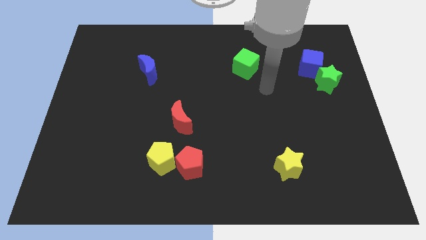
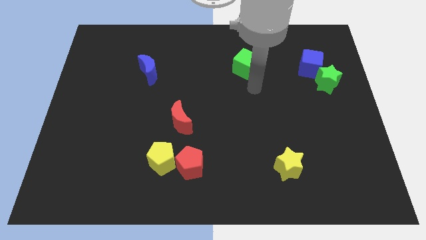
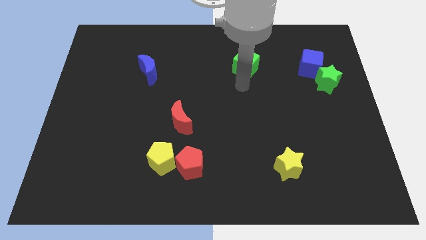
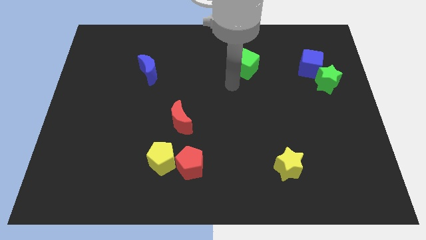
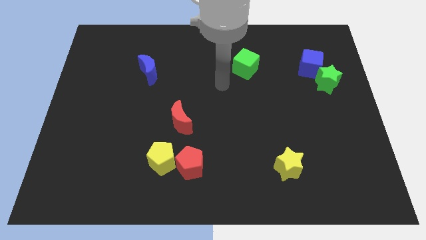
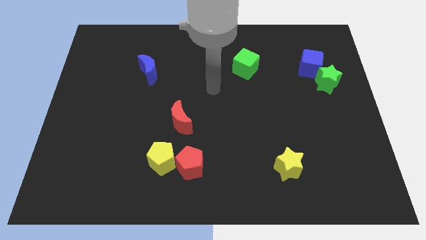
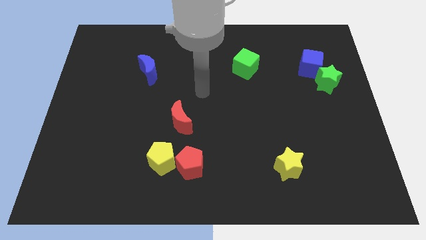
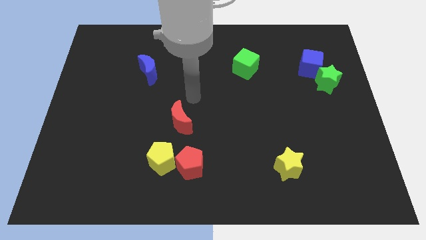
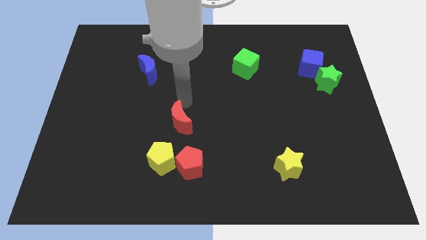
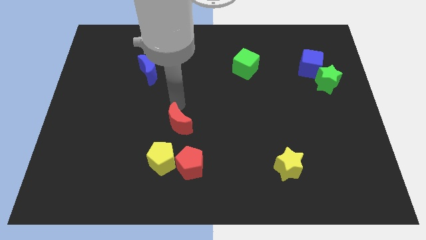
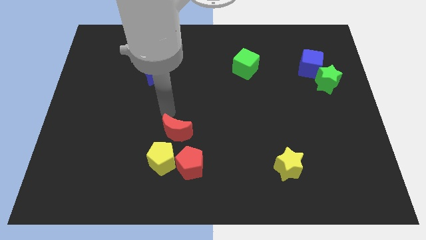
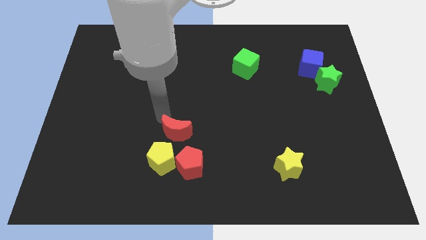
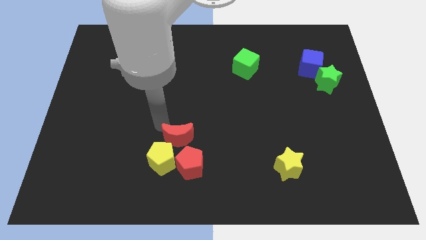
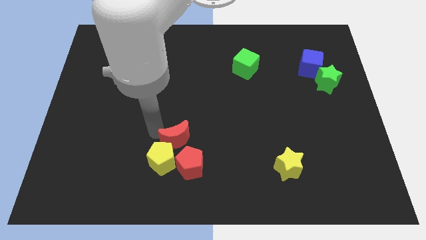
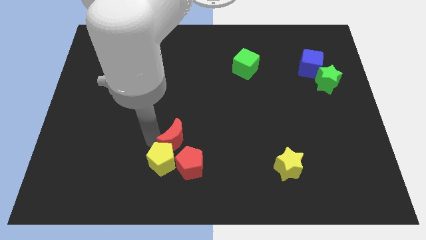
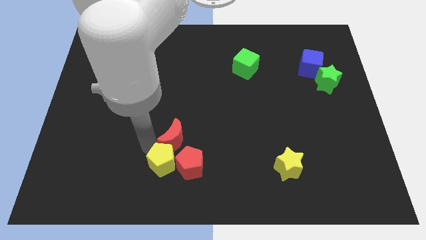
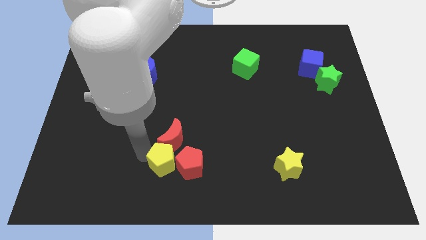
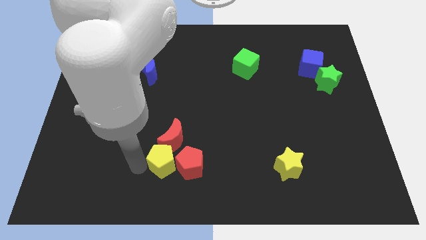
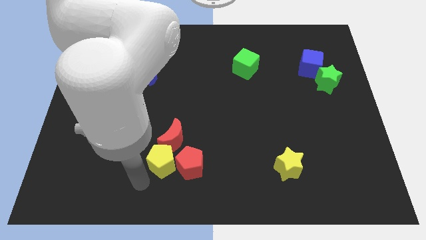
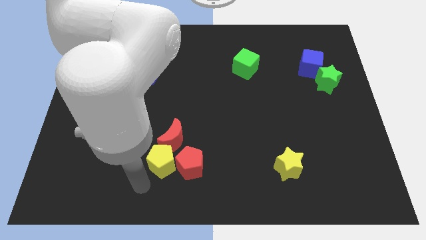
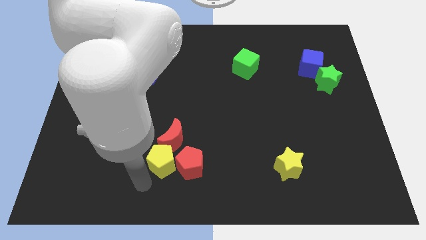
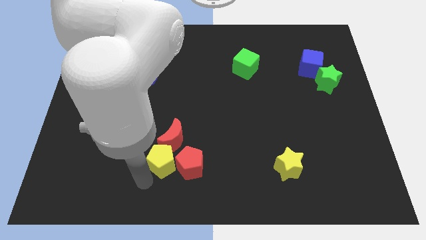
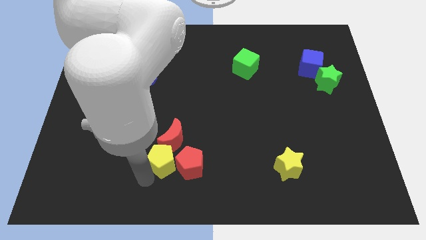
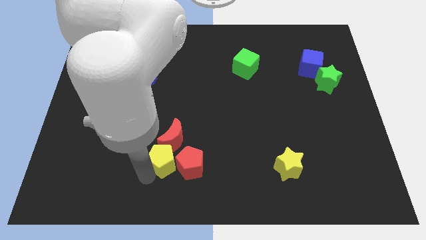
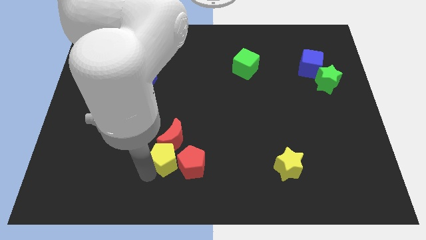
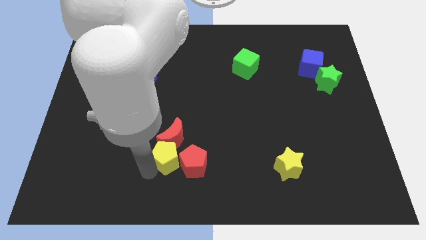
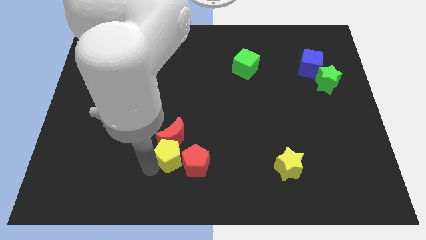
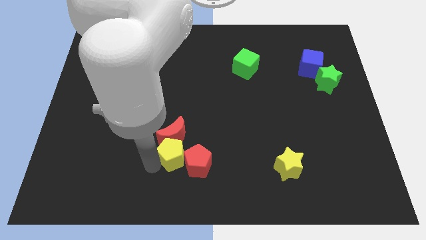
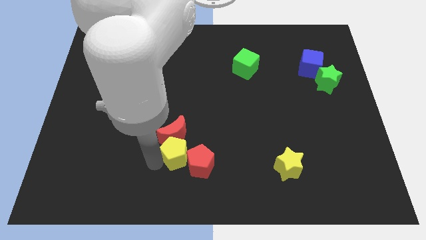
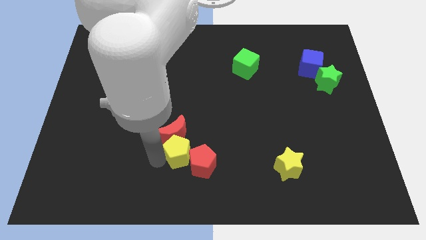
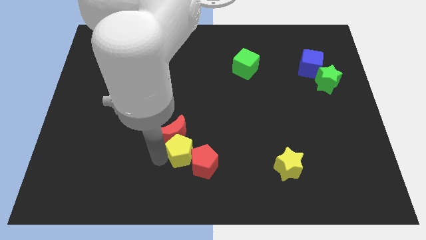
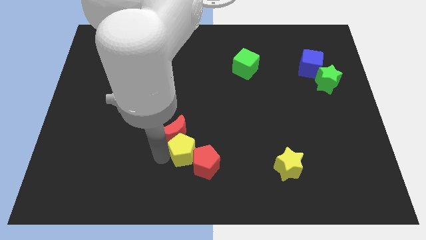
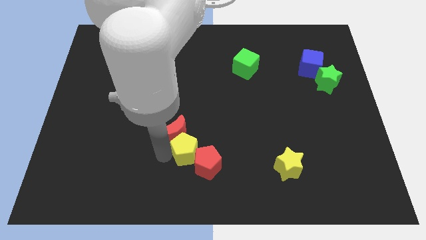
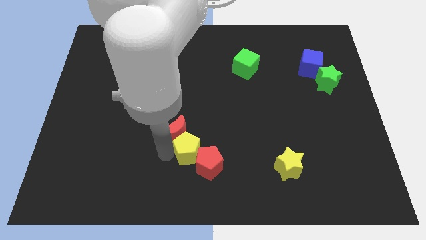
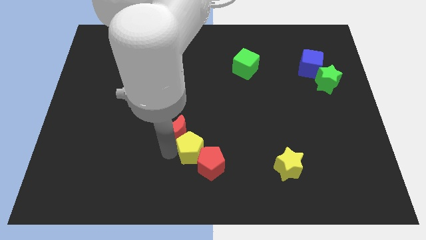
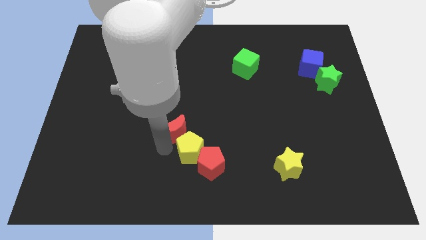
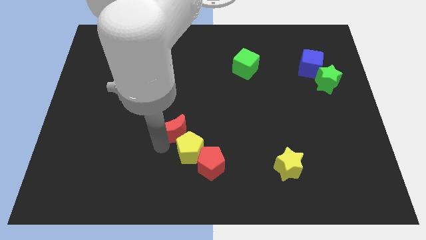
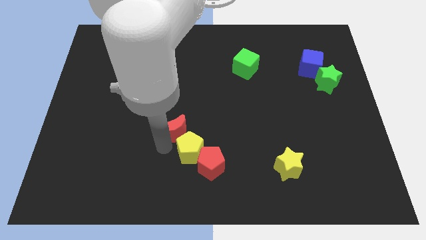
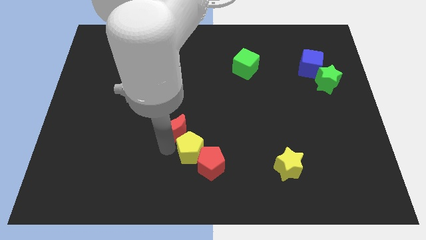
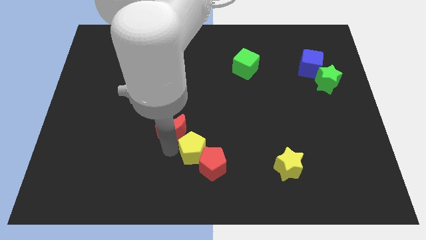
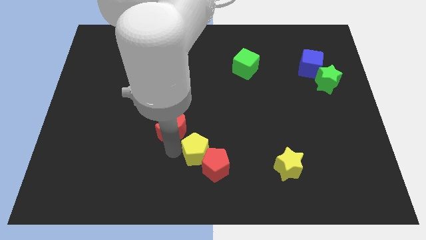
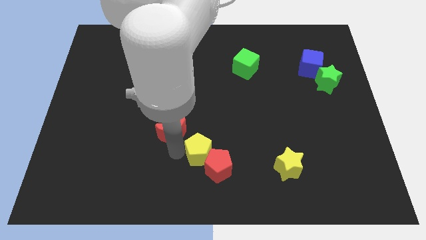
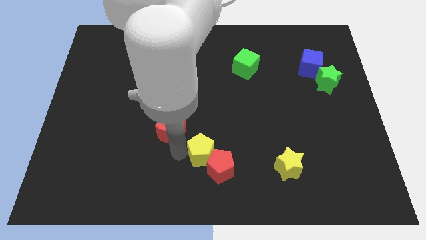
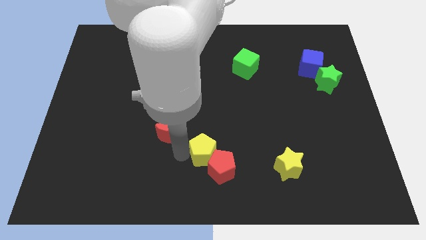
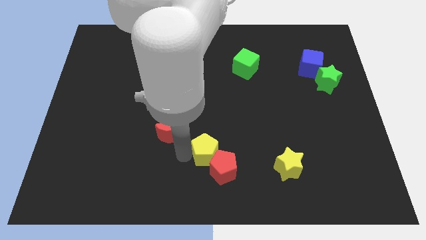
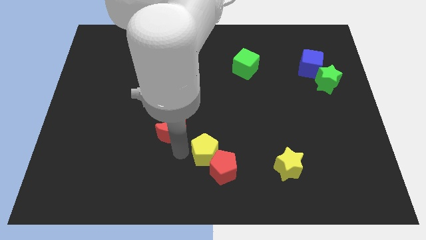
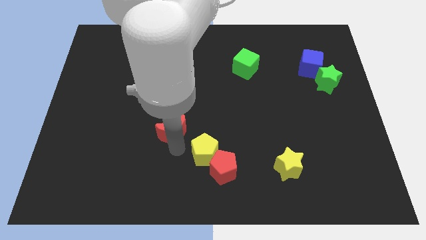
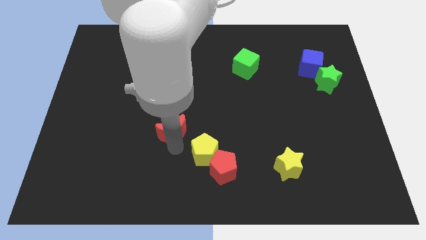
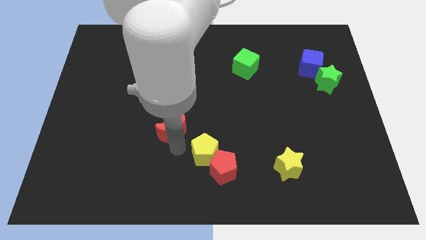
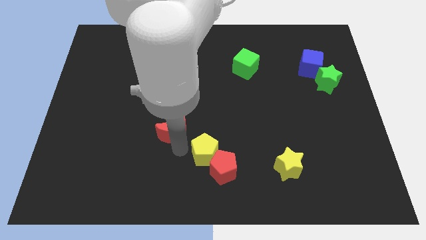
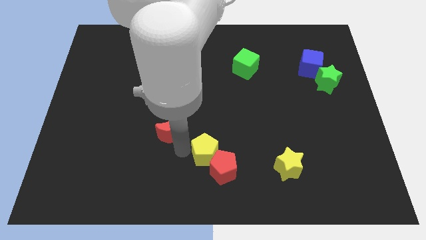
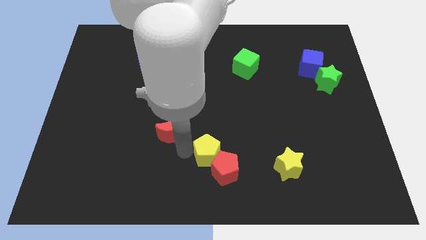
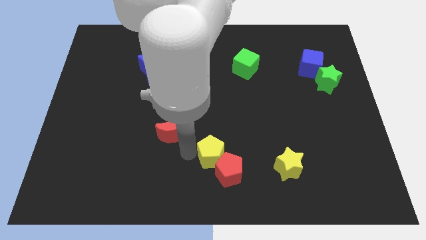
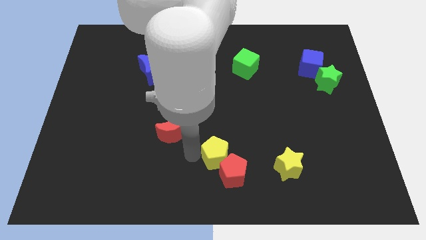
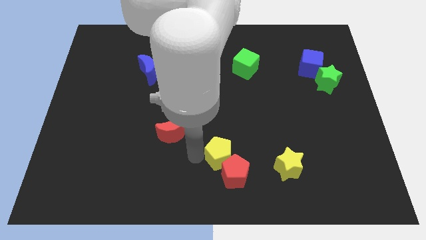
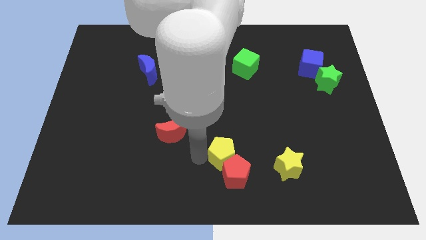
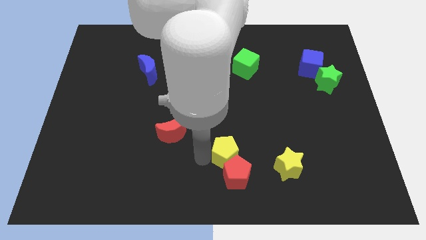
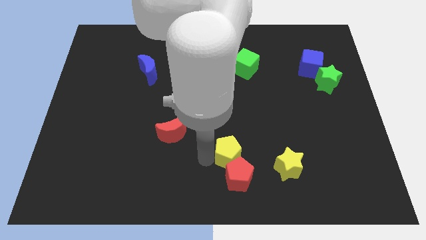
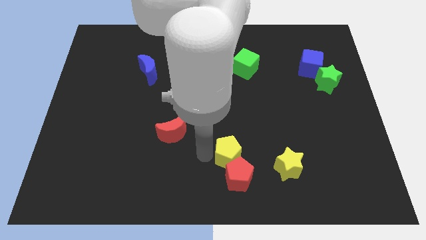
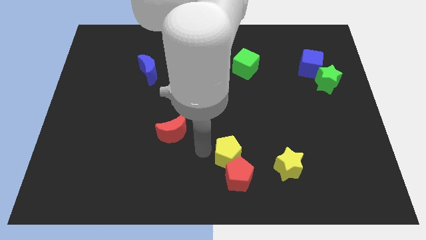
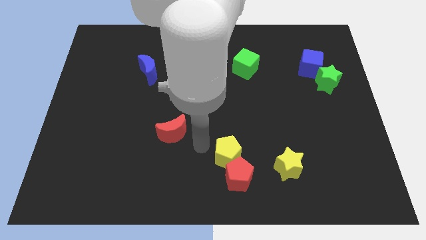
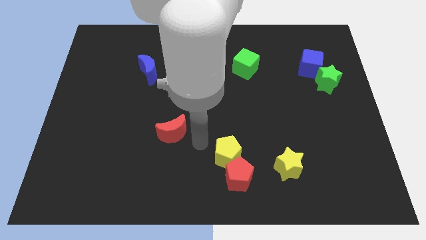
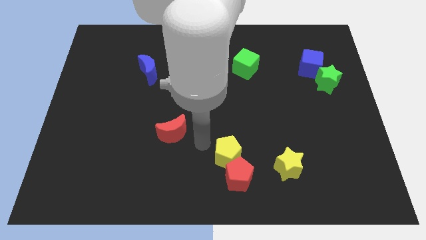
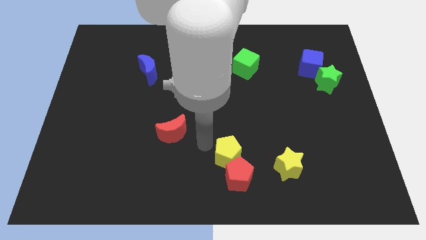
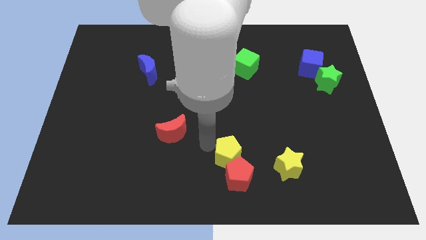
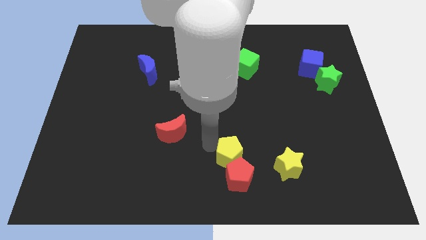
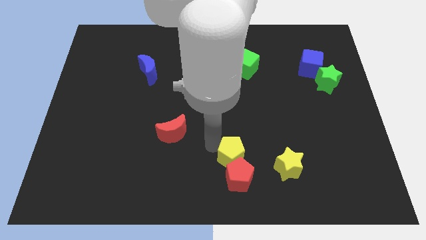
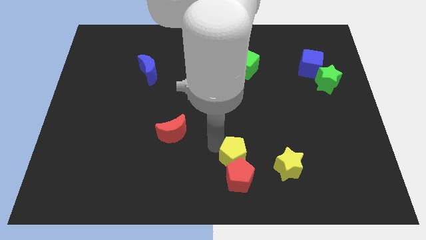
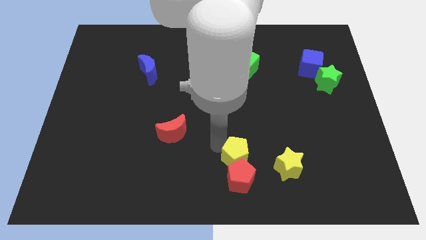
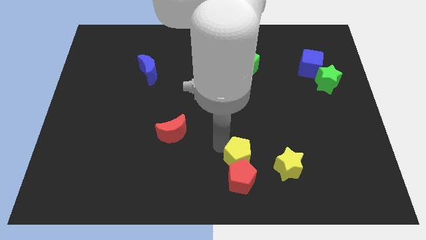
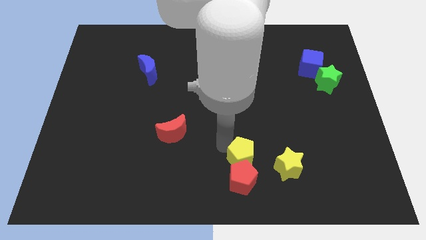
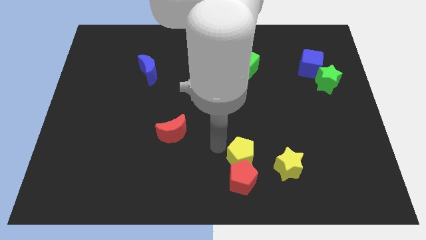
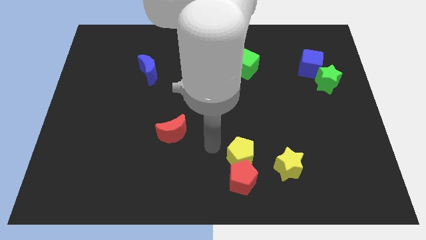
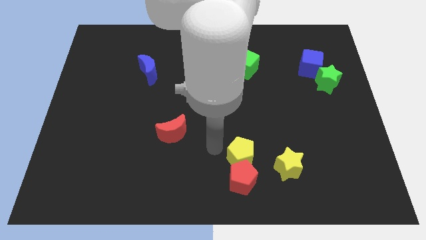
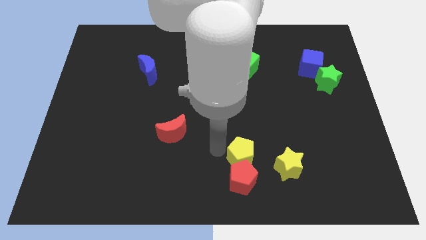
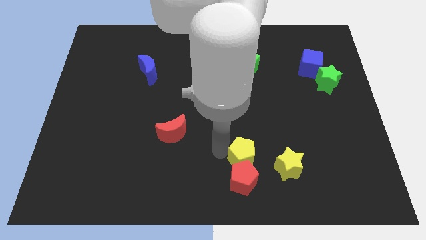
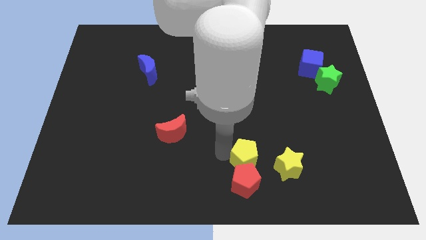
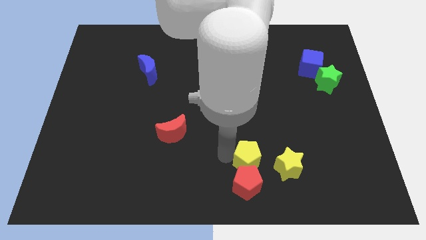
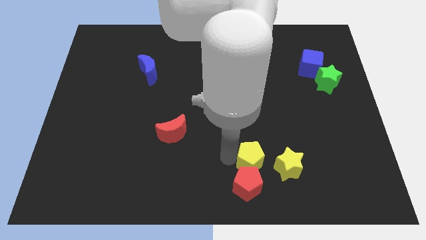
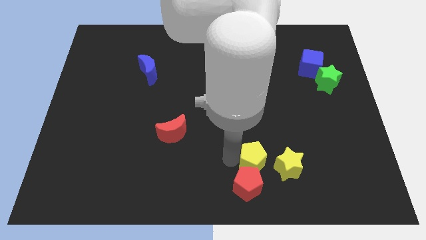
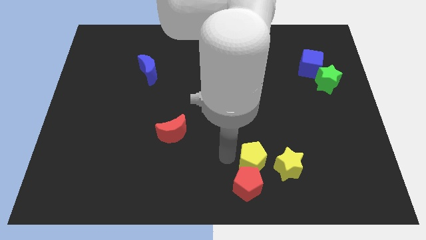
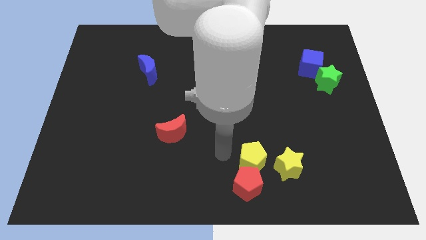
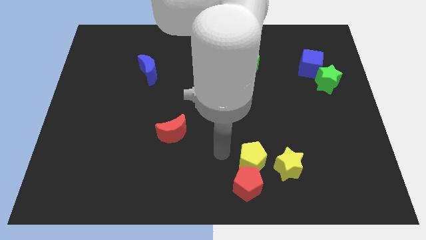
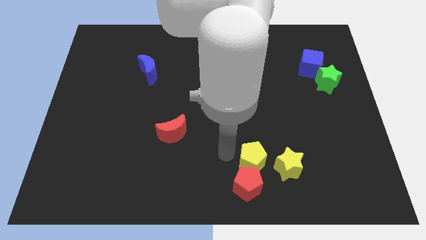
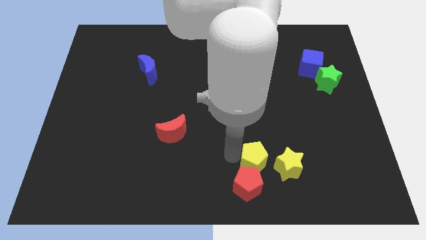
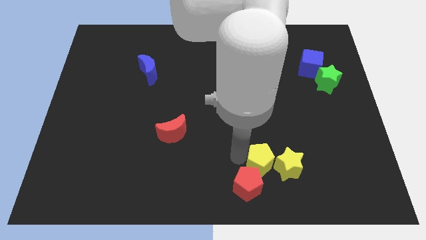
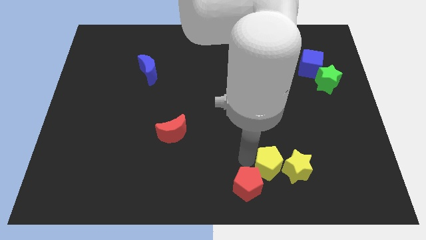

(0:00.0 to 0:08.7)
move the yellow pentagon close to the yellow star
